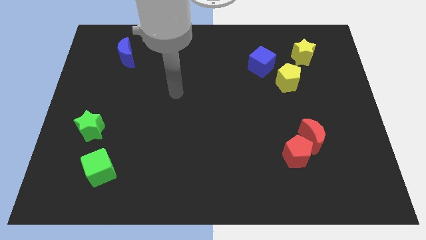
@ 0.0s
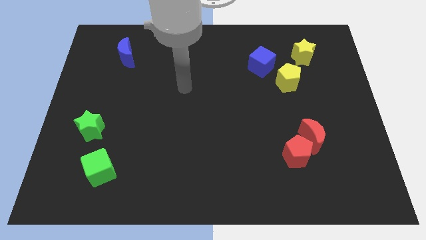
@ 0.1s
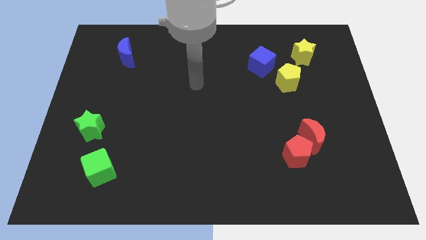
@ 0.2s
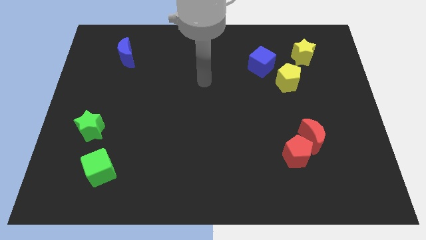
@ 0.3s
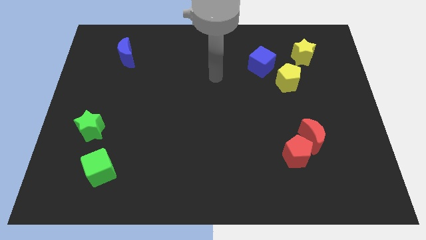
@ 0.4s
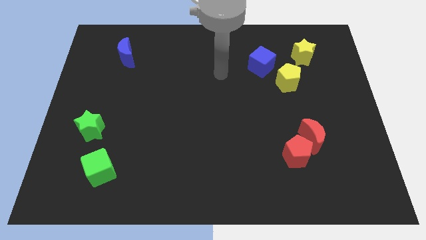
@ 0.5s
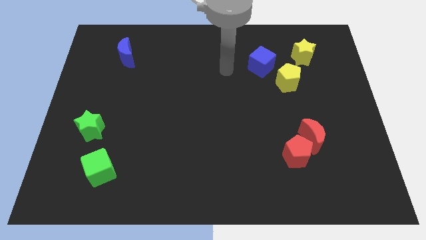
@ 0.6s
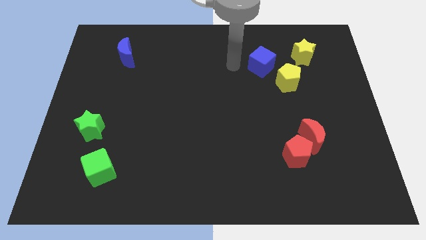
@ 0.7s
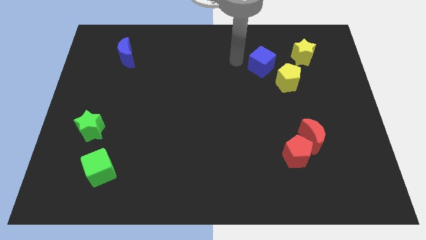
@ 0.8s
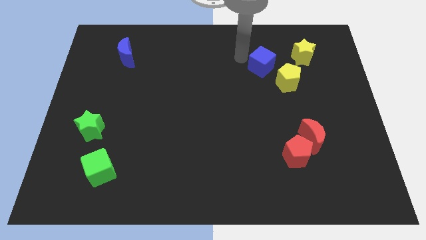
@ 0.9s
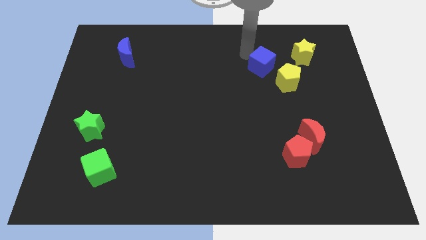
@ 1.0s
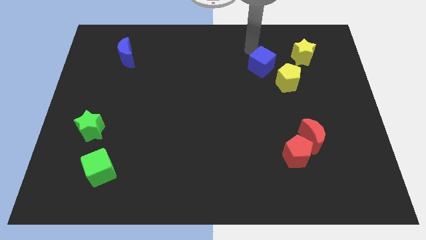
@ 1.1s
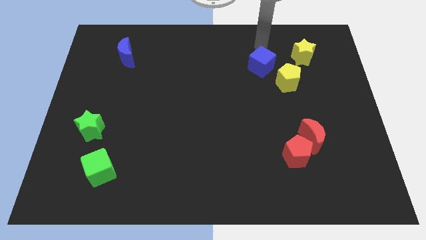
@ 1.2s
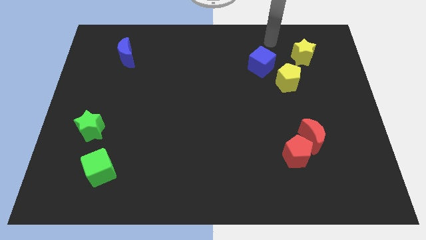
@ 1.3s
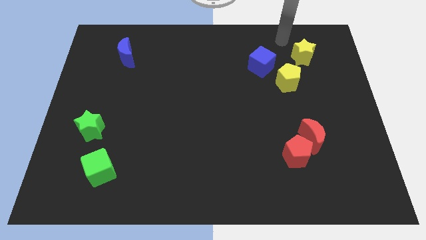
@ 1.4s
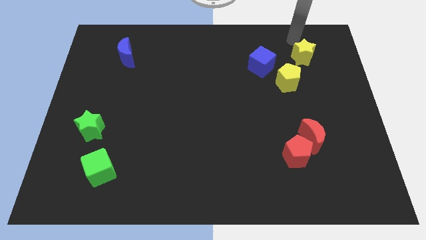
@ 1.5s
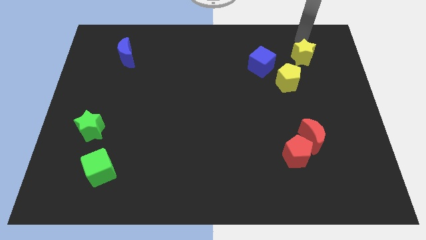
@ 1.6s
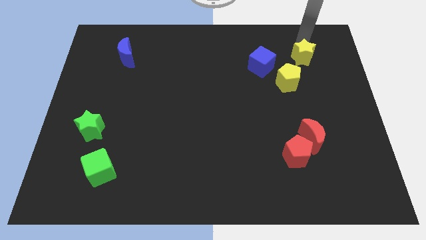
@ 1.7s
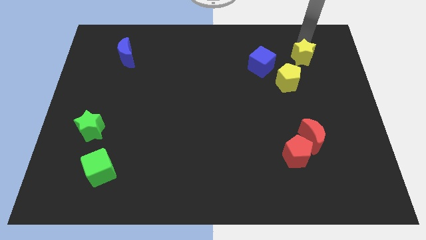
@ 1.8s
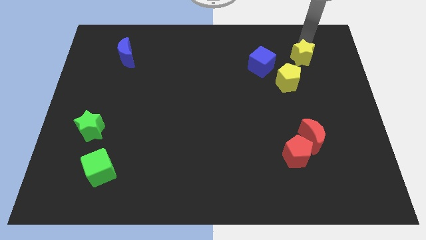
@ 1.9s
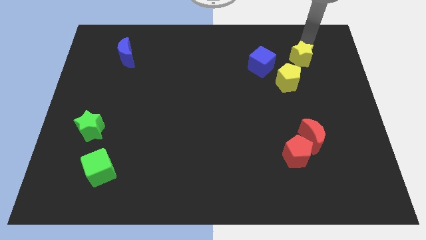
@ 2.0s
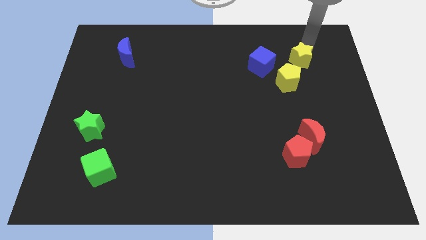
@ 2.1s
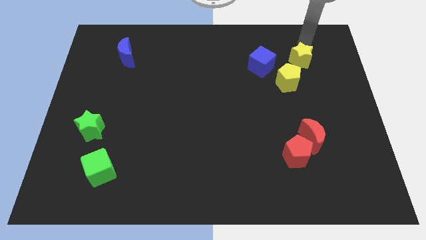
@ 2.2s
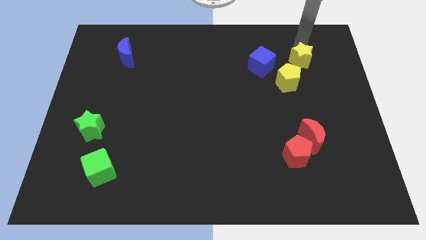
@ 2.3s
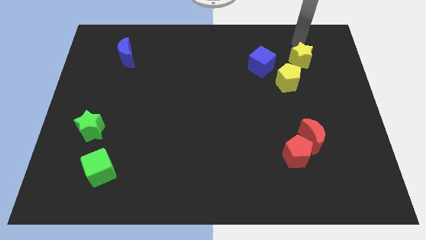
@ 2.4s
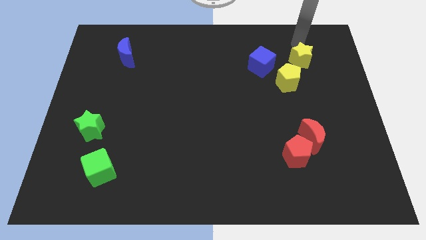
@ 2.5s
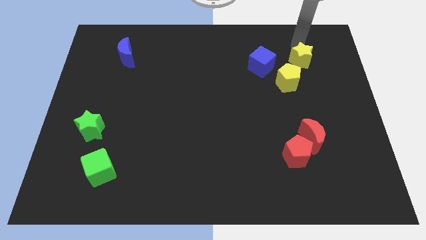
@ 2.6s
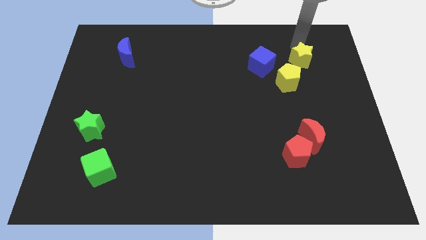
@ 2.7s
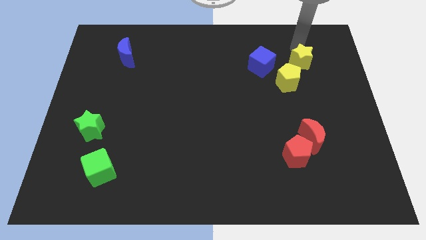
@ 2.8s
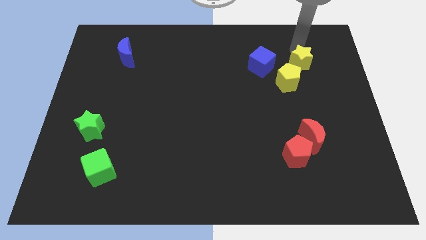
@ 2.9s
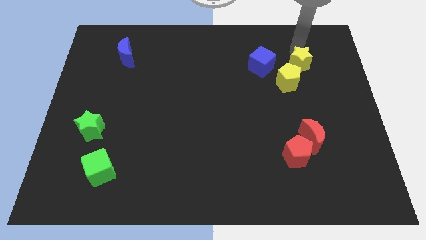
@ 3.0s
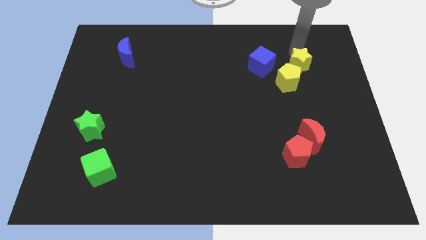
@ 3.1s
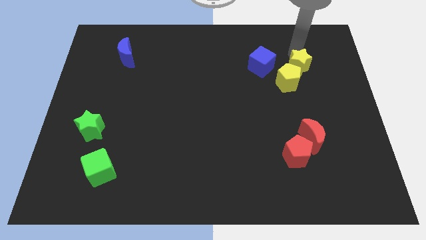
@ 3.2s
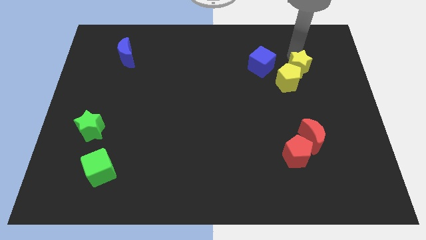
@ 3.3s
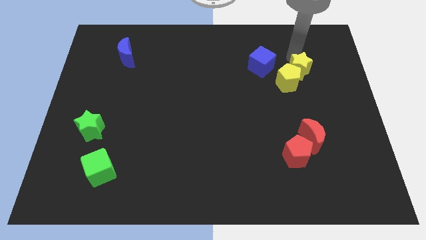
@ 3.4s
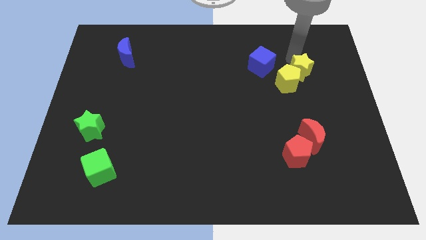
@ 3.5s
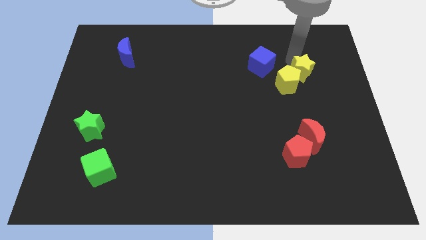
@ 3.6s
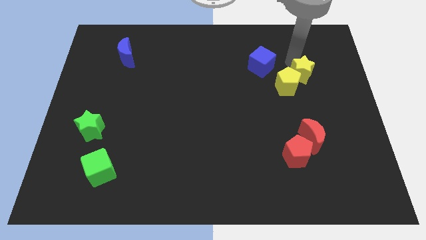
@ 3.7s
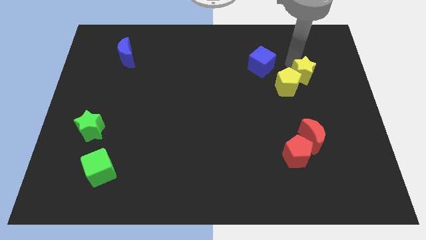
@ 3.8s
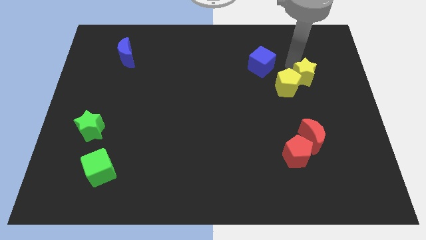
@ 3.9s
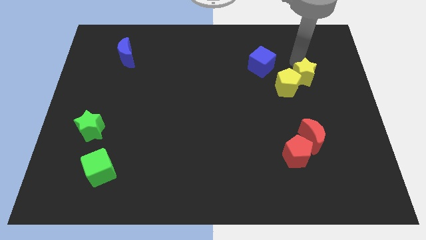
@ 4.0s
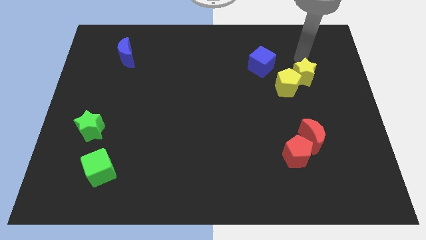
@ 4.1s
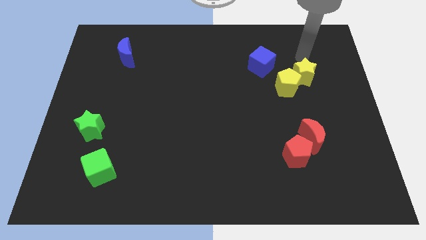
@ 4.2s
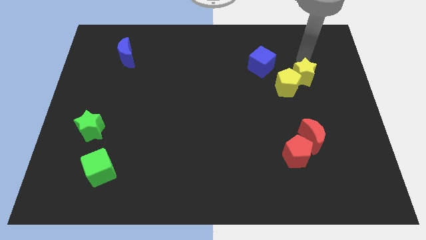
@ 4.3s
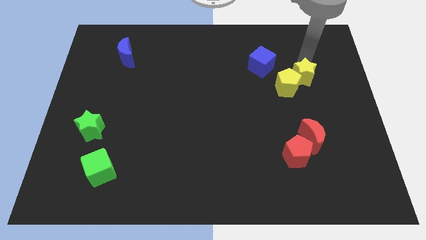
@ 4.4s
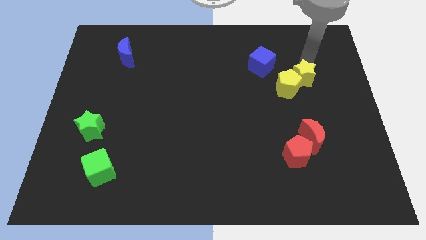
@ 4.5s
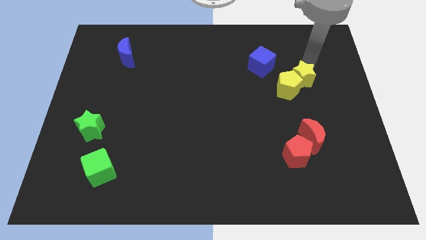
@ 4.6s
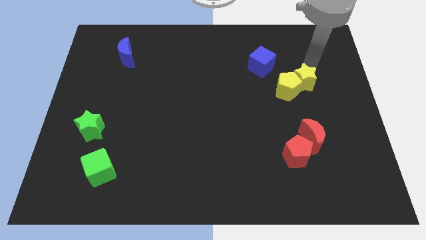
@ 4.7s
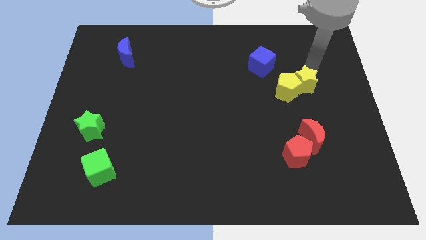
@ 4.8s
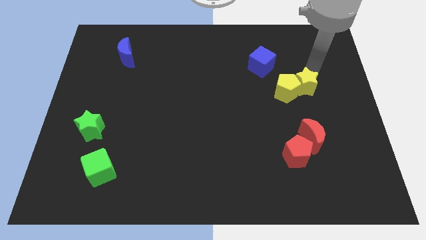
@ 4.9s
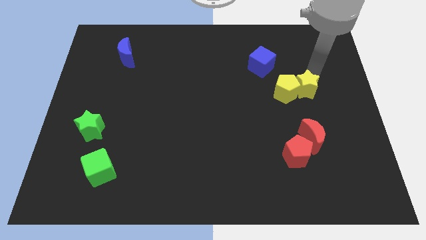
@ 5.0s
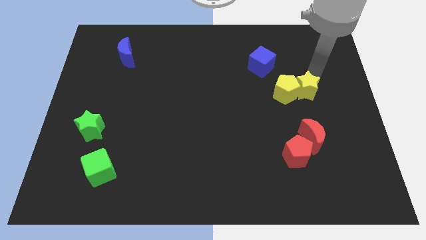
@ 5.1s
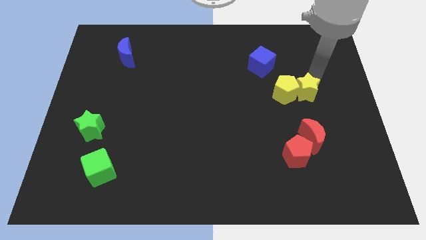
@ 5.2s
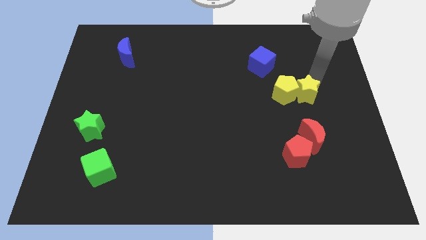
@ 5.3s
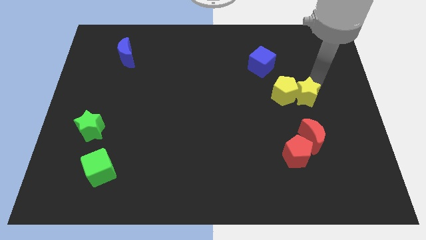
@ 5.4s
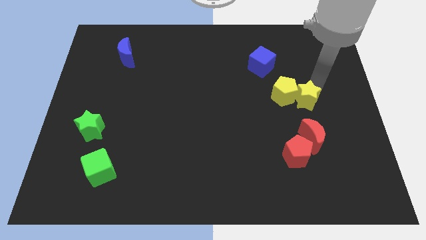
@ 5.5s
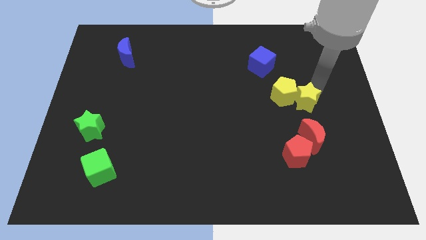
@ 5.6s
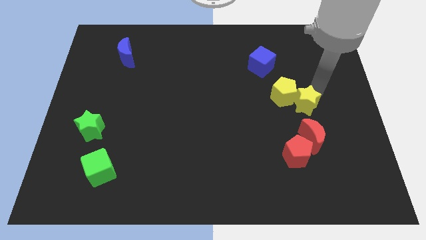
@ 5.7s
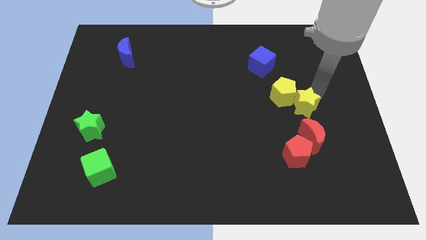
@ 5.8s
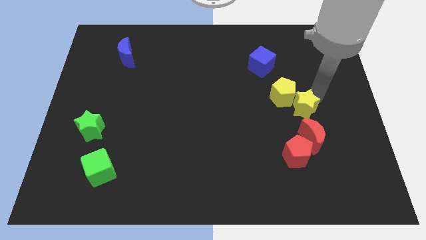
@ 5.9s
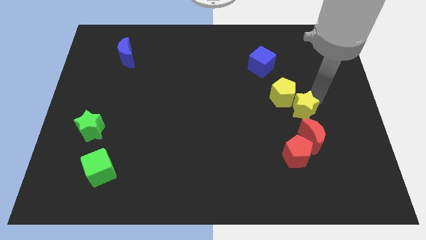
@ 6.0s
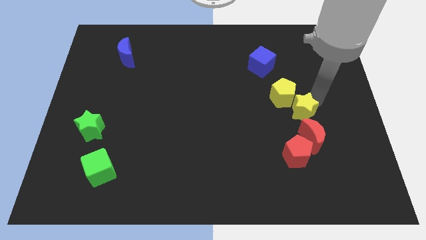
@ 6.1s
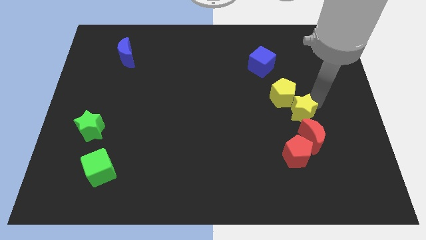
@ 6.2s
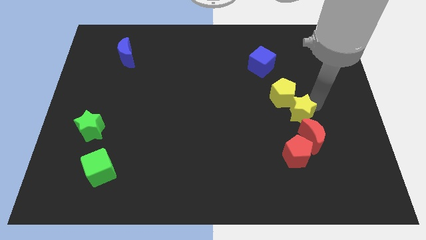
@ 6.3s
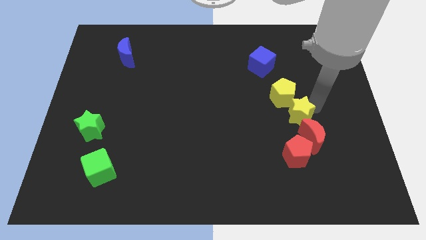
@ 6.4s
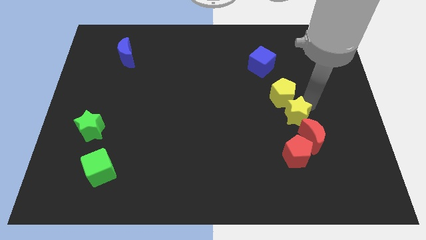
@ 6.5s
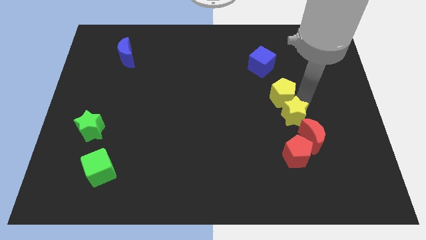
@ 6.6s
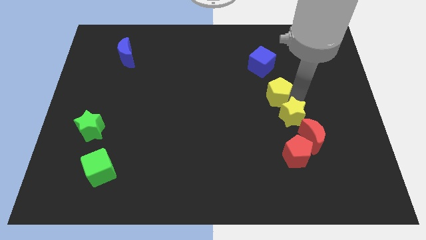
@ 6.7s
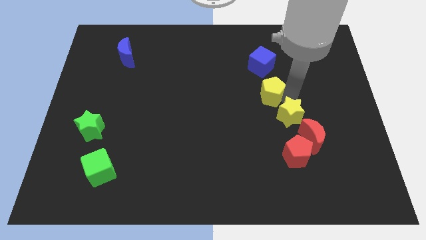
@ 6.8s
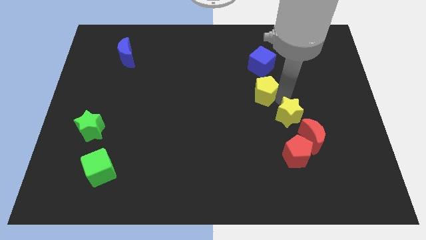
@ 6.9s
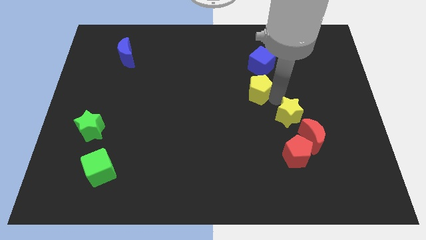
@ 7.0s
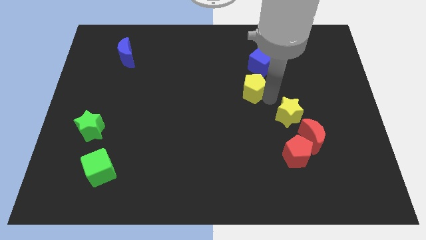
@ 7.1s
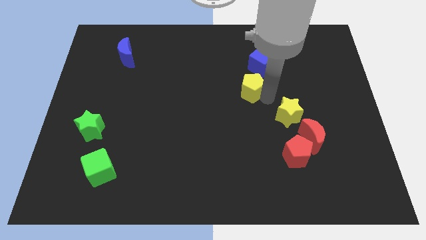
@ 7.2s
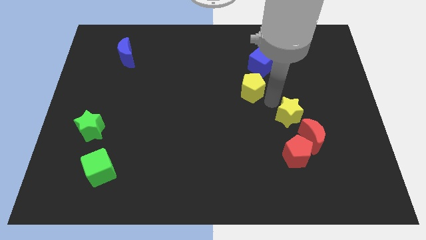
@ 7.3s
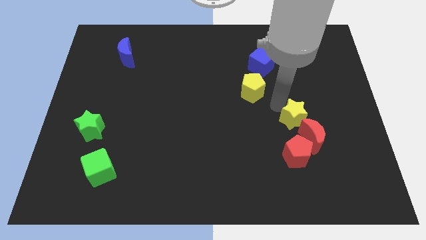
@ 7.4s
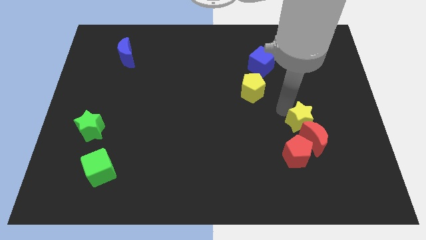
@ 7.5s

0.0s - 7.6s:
move the yellow star to the top right side of the red pentagon
